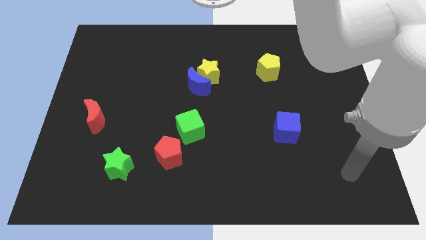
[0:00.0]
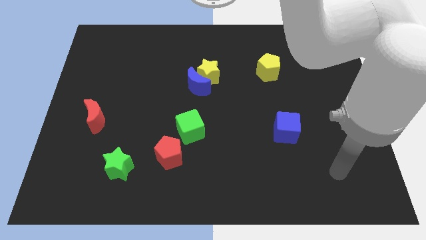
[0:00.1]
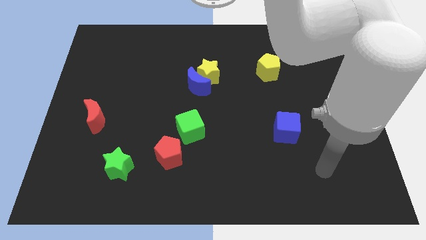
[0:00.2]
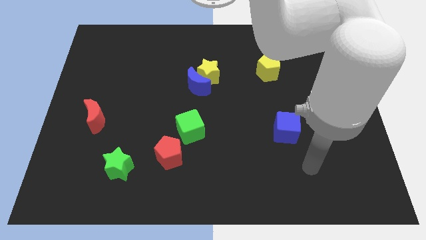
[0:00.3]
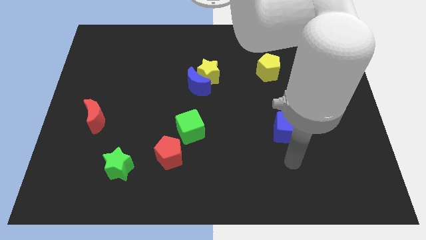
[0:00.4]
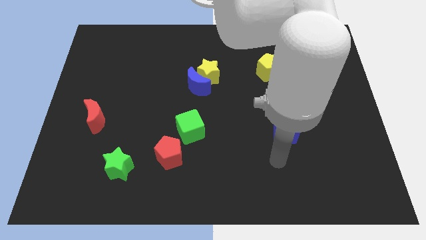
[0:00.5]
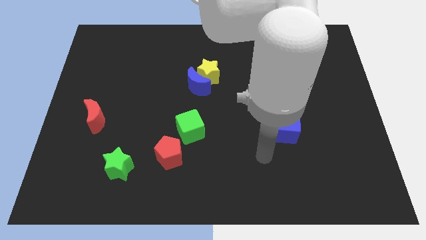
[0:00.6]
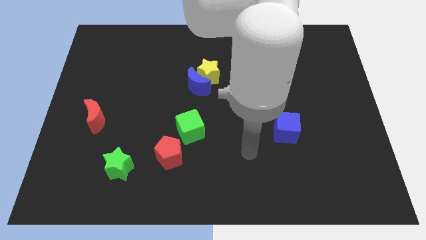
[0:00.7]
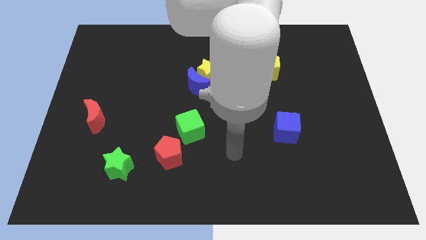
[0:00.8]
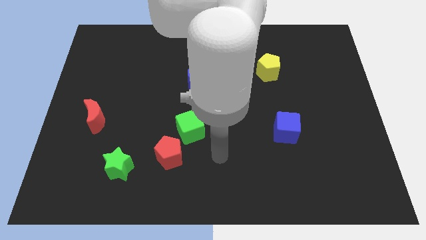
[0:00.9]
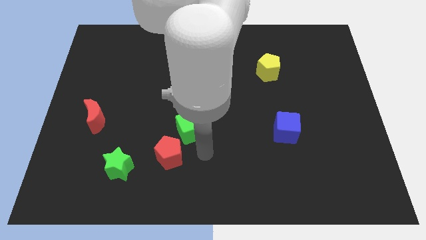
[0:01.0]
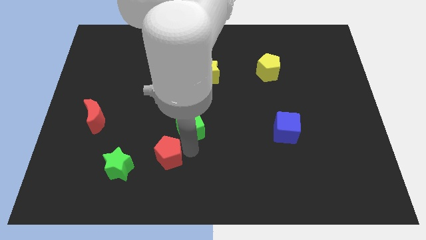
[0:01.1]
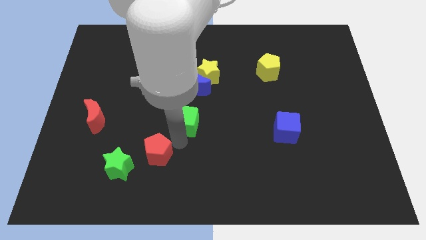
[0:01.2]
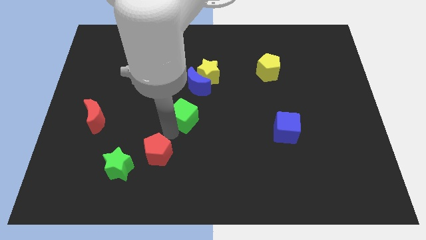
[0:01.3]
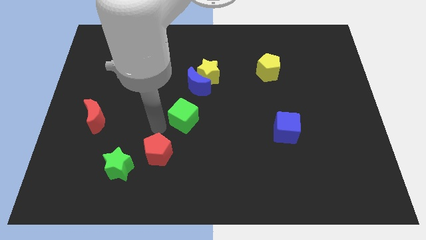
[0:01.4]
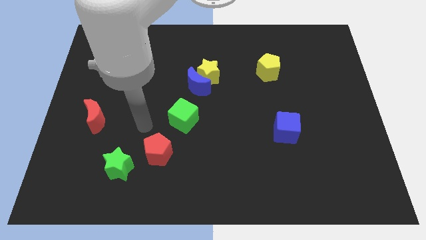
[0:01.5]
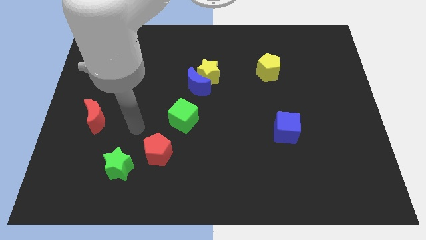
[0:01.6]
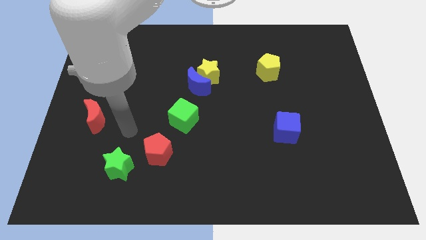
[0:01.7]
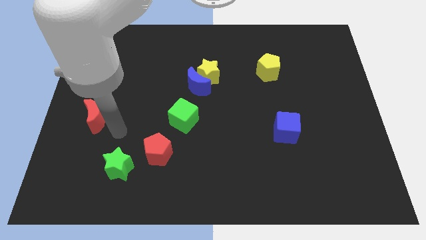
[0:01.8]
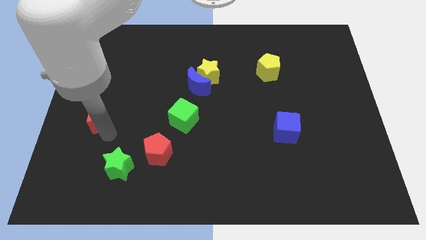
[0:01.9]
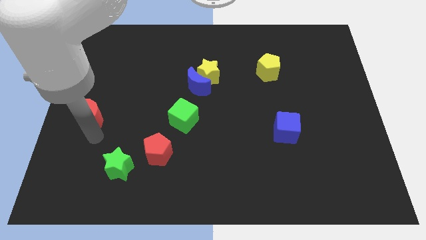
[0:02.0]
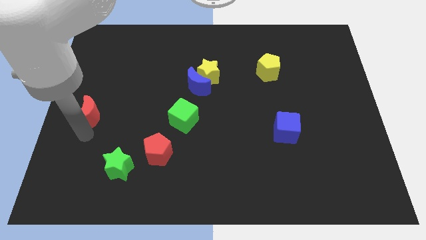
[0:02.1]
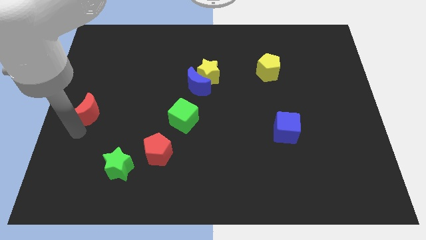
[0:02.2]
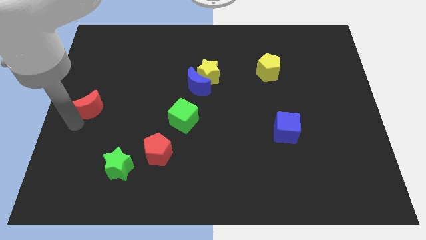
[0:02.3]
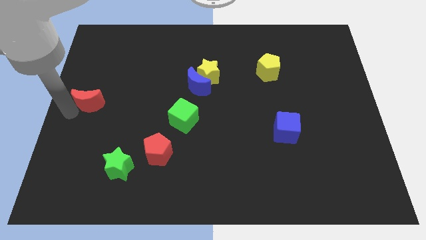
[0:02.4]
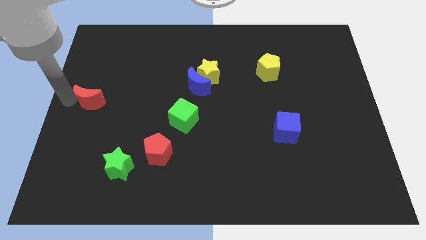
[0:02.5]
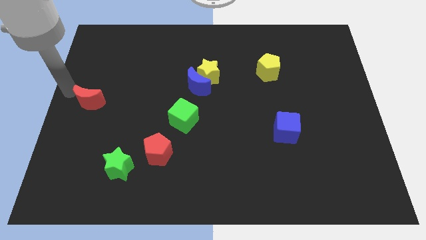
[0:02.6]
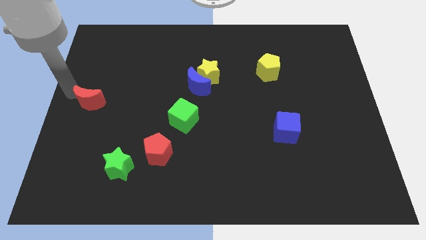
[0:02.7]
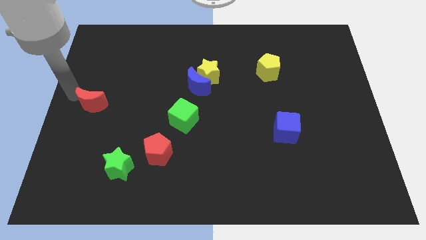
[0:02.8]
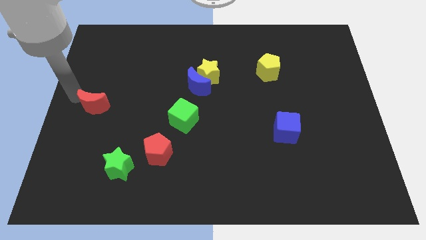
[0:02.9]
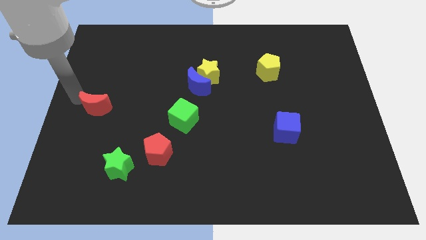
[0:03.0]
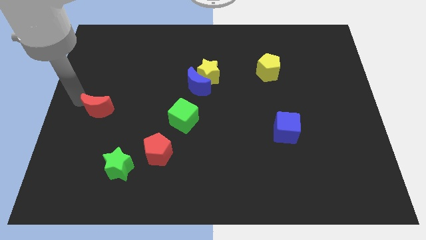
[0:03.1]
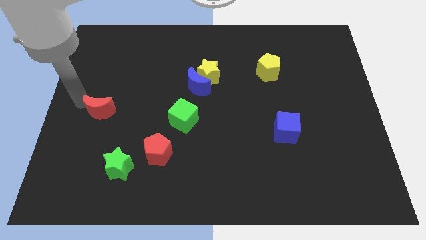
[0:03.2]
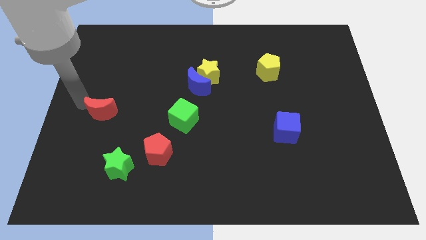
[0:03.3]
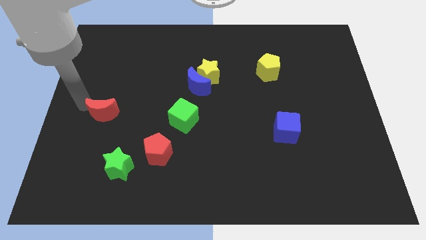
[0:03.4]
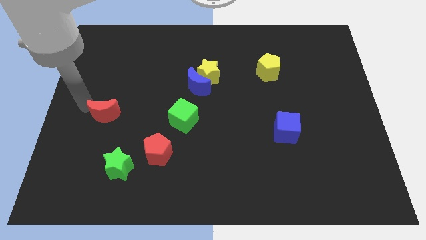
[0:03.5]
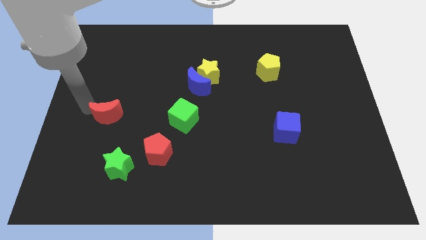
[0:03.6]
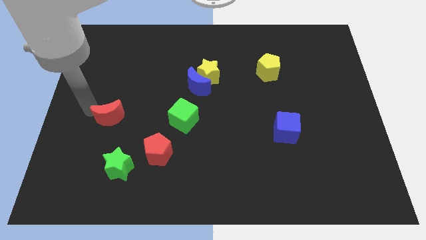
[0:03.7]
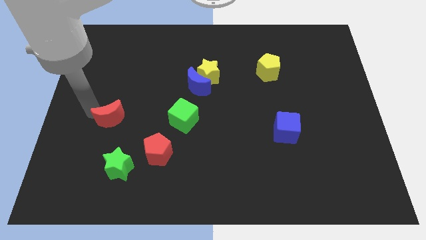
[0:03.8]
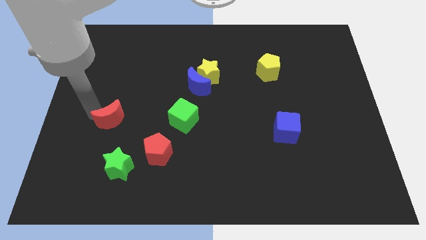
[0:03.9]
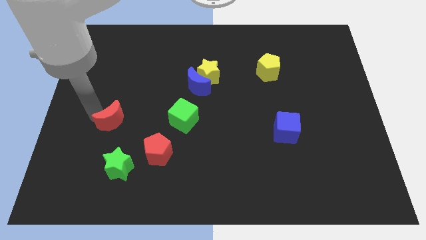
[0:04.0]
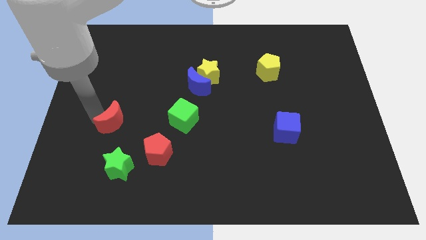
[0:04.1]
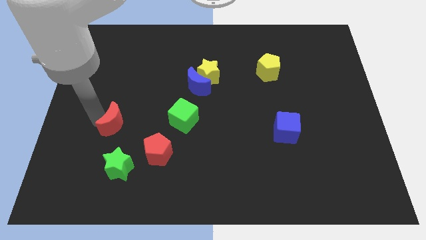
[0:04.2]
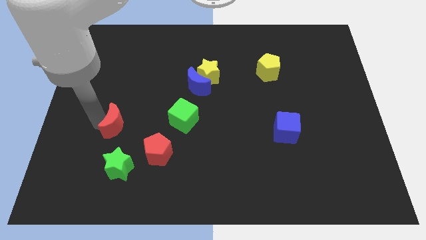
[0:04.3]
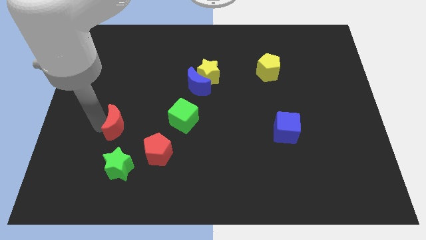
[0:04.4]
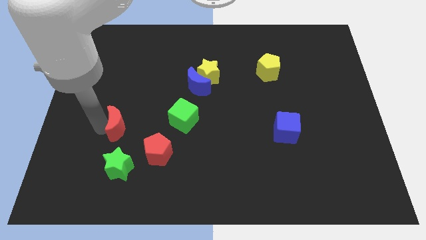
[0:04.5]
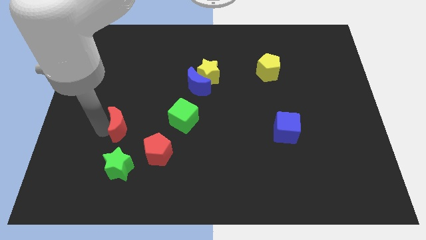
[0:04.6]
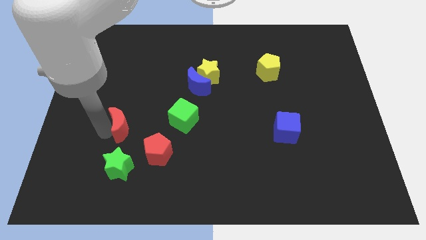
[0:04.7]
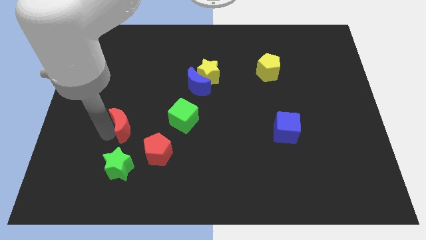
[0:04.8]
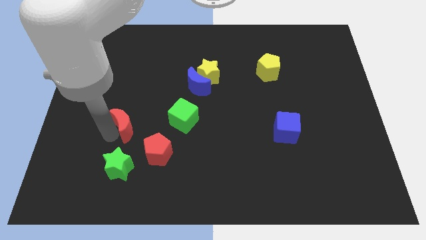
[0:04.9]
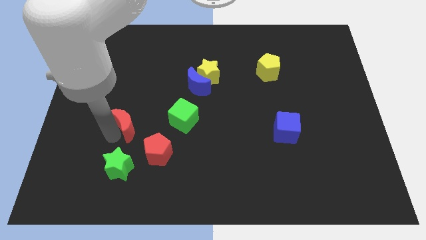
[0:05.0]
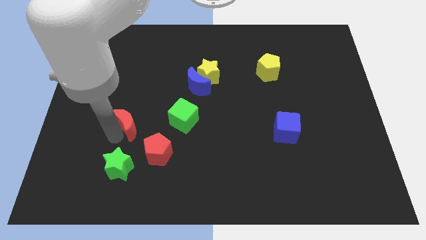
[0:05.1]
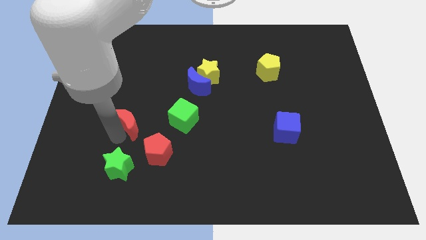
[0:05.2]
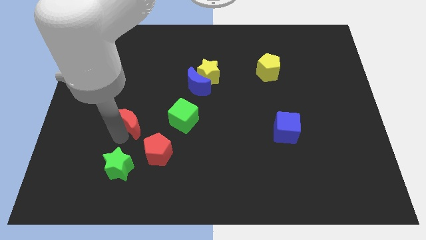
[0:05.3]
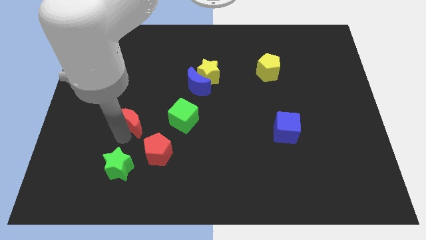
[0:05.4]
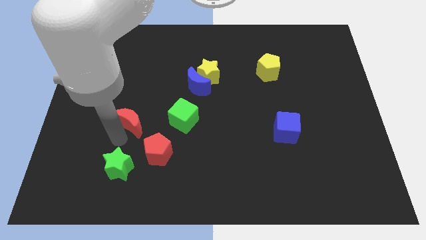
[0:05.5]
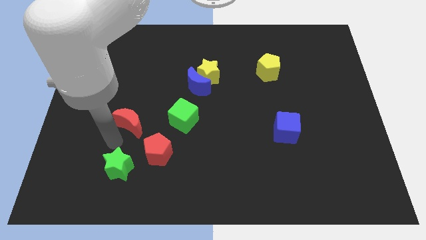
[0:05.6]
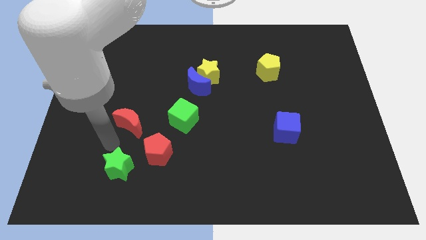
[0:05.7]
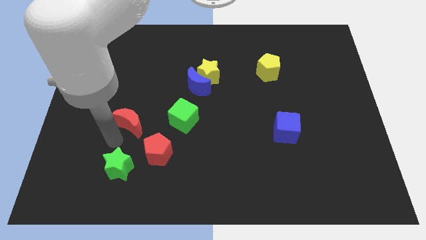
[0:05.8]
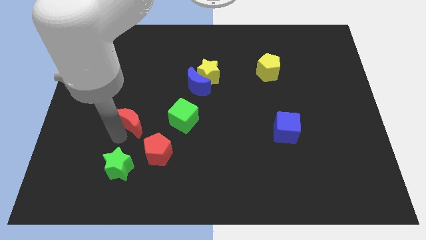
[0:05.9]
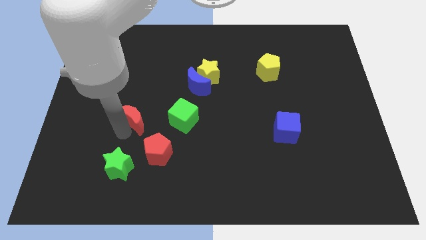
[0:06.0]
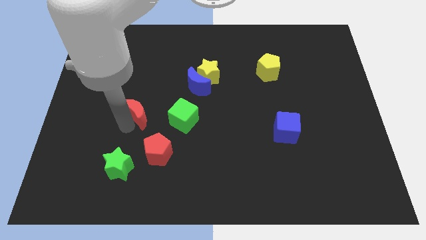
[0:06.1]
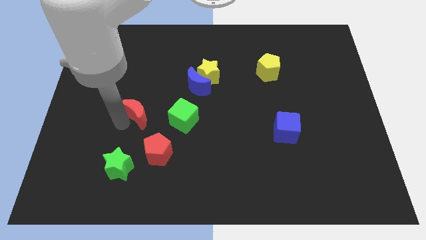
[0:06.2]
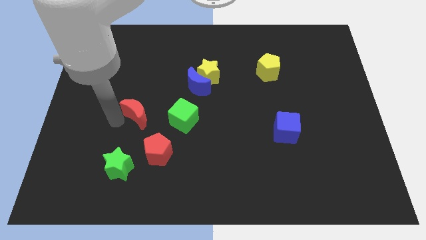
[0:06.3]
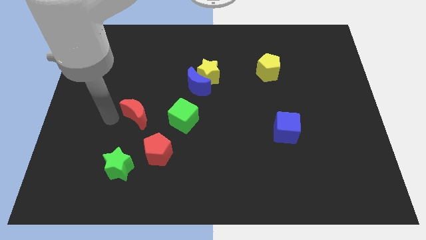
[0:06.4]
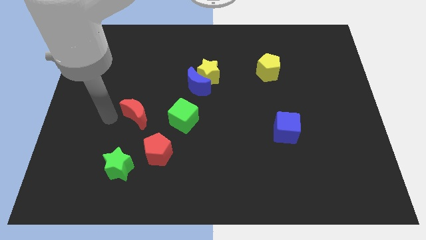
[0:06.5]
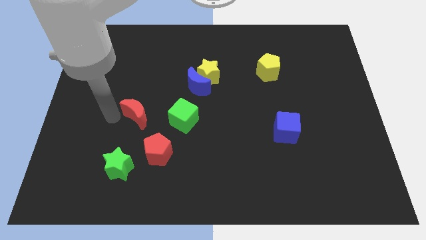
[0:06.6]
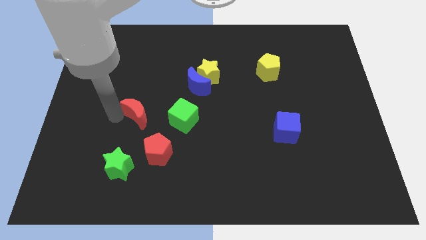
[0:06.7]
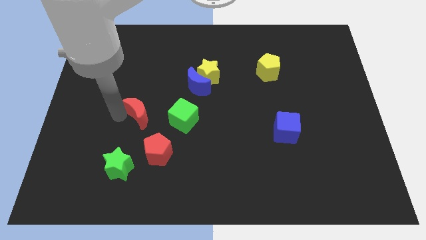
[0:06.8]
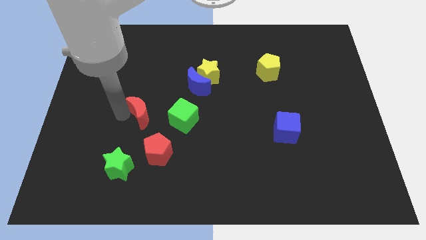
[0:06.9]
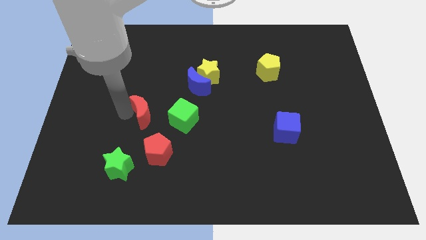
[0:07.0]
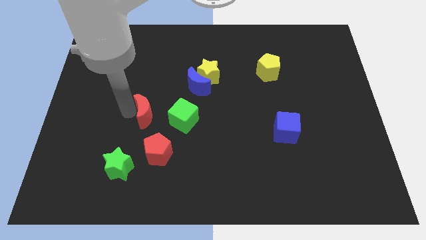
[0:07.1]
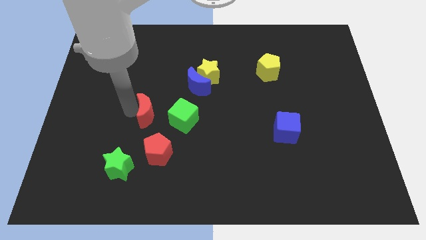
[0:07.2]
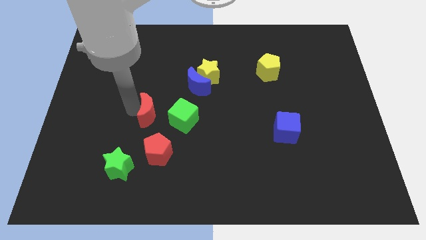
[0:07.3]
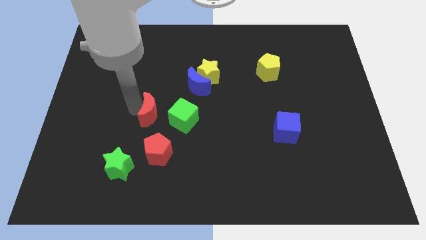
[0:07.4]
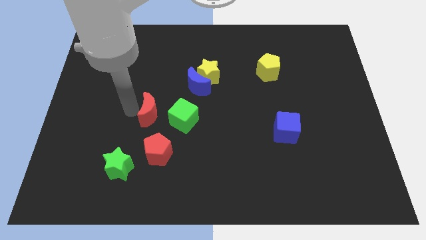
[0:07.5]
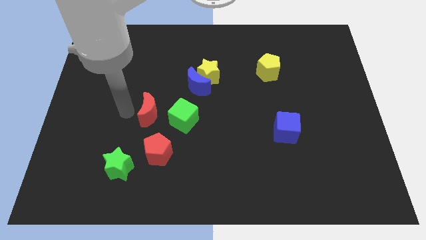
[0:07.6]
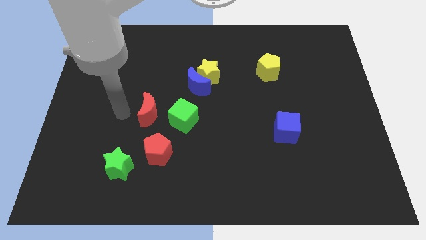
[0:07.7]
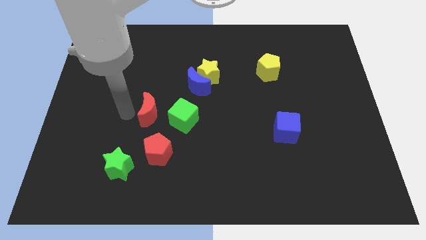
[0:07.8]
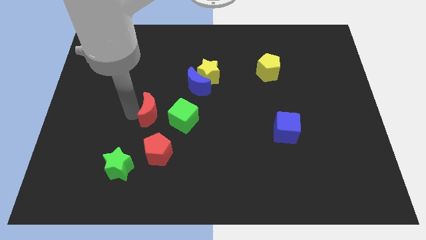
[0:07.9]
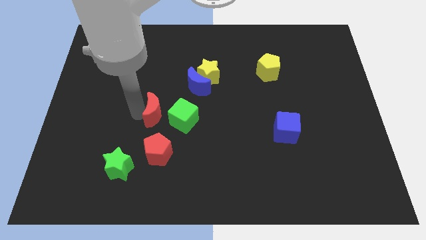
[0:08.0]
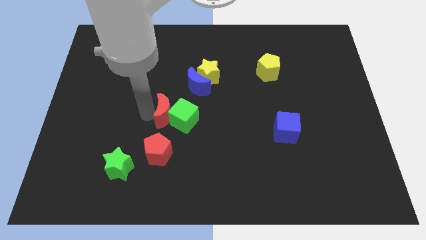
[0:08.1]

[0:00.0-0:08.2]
slide the red moon to the middle of the board
